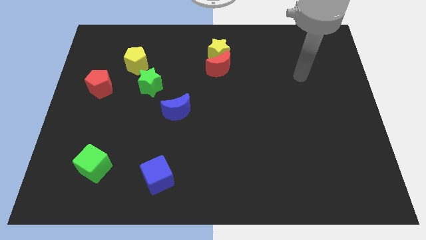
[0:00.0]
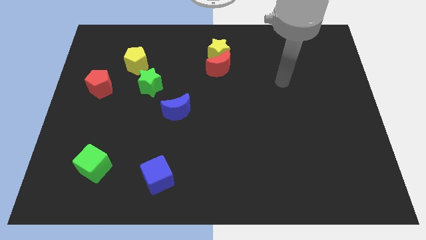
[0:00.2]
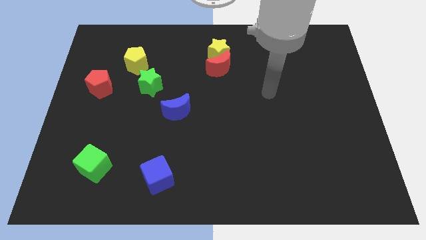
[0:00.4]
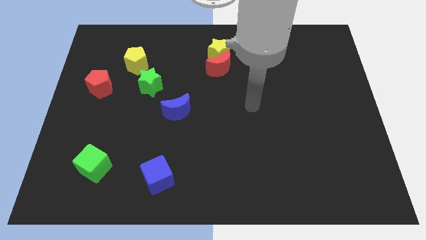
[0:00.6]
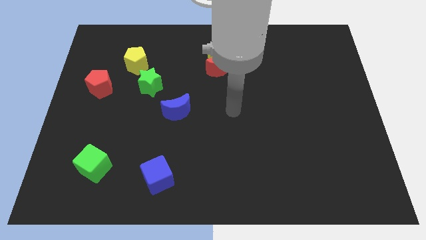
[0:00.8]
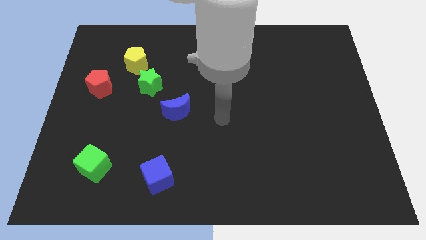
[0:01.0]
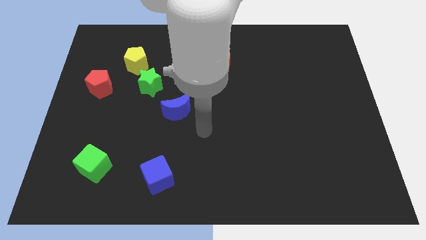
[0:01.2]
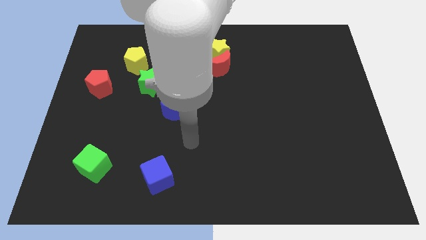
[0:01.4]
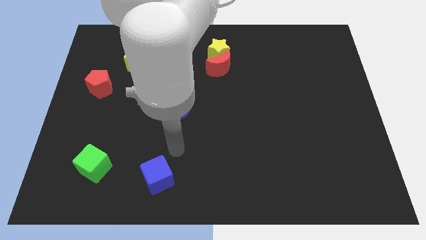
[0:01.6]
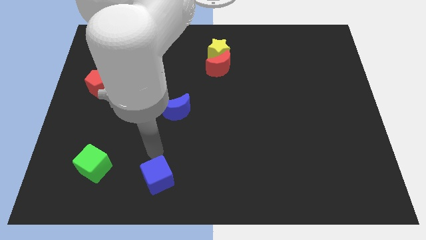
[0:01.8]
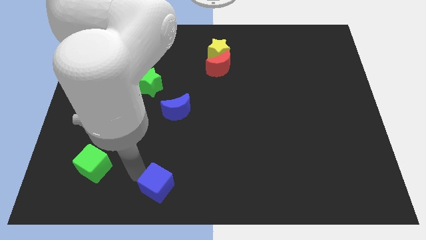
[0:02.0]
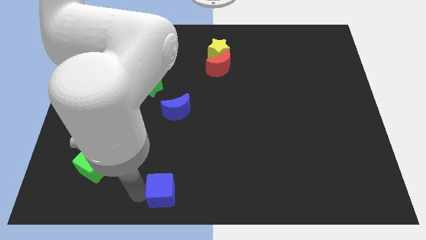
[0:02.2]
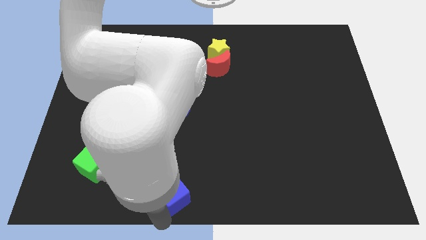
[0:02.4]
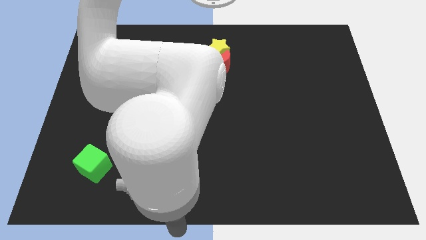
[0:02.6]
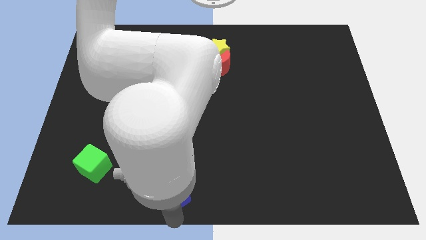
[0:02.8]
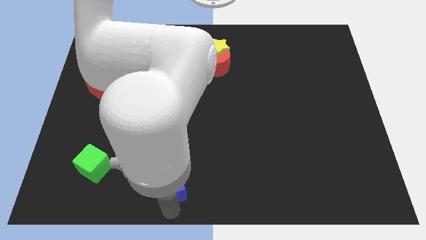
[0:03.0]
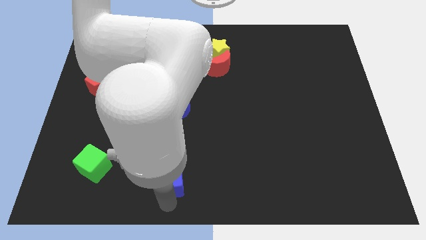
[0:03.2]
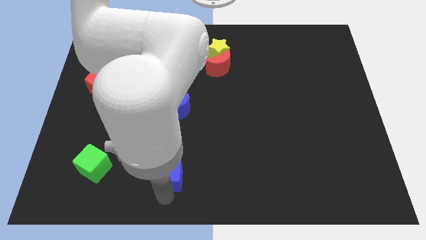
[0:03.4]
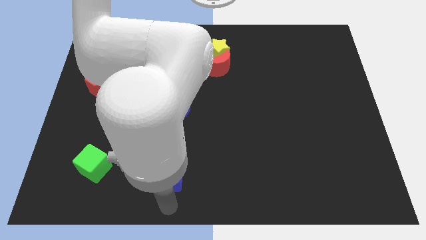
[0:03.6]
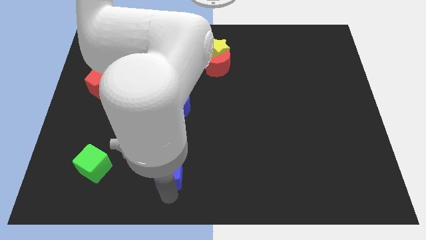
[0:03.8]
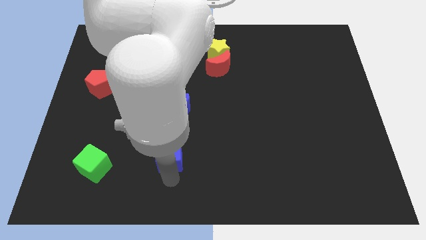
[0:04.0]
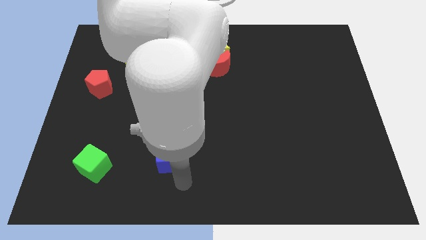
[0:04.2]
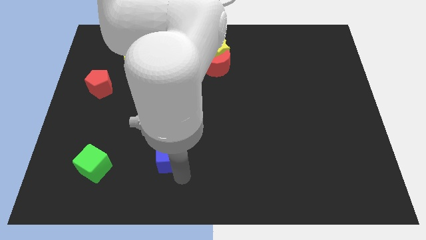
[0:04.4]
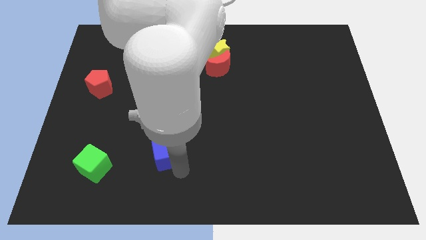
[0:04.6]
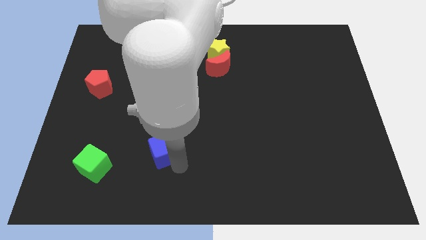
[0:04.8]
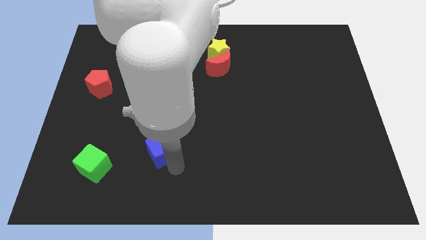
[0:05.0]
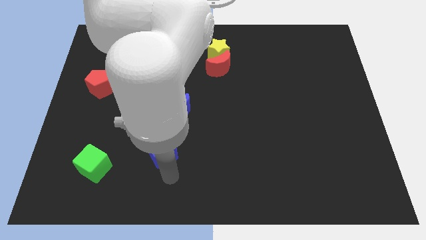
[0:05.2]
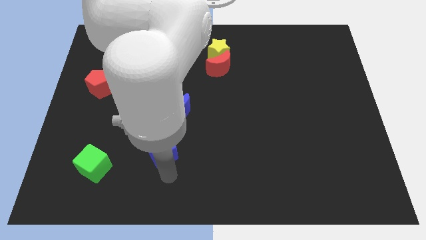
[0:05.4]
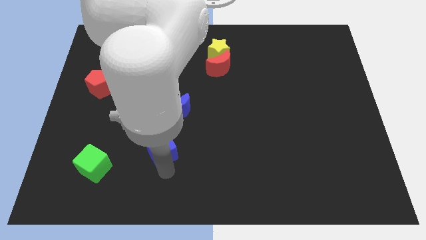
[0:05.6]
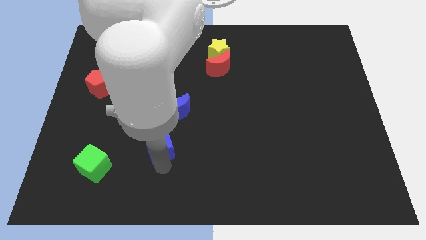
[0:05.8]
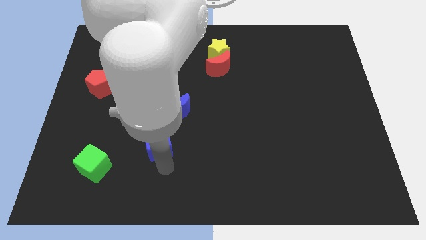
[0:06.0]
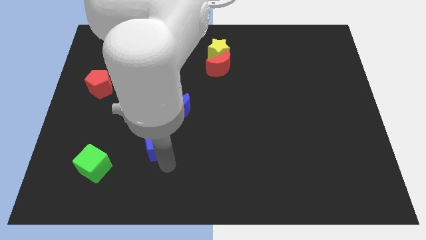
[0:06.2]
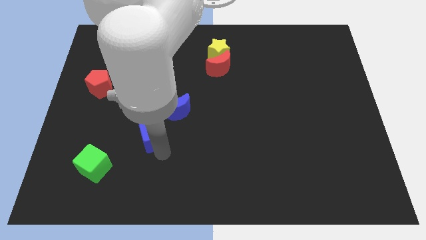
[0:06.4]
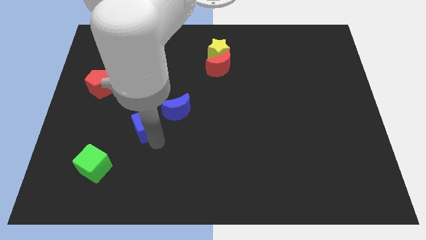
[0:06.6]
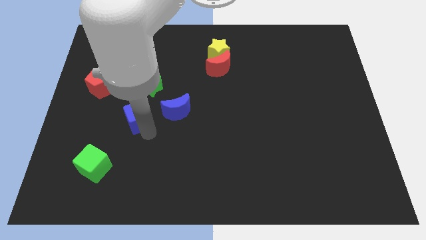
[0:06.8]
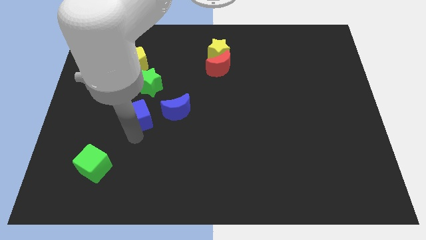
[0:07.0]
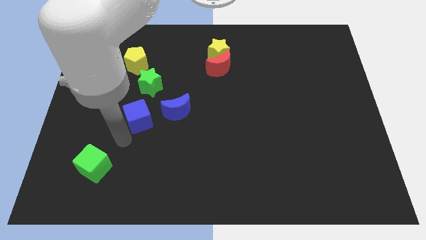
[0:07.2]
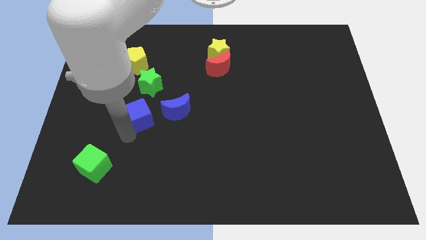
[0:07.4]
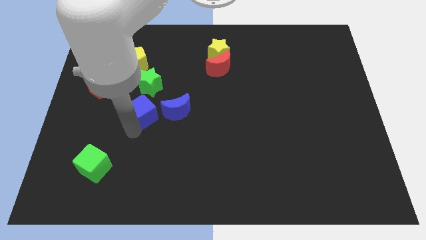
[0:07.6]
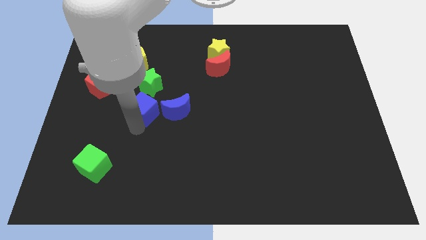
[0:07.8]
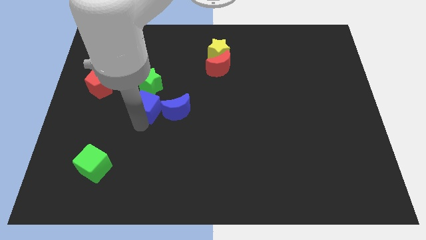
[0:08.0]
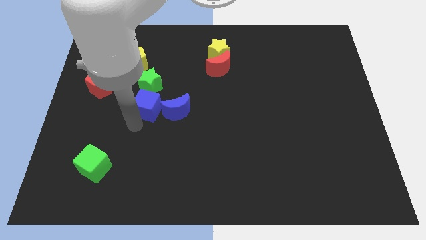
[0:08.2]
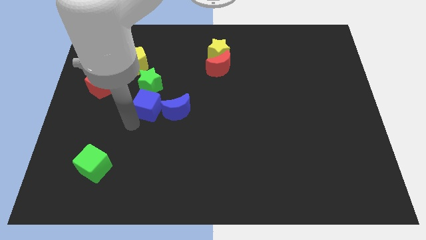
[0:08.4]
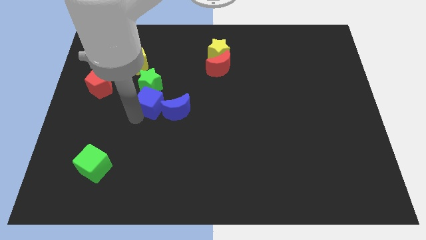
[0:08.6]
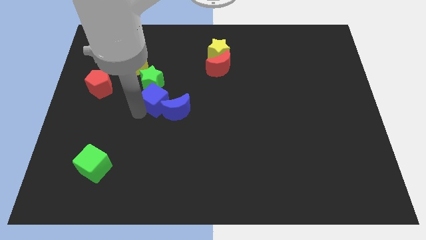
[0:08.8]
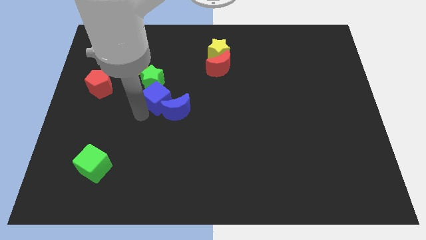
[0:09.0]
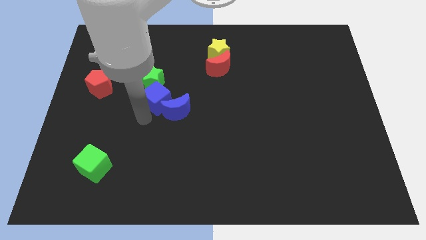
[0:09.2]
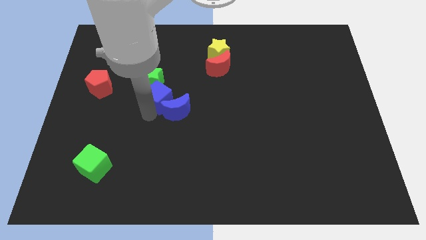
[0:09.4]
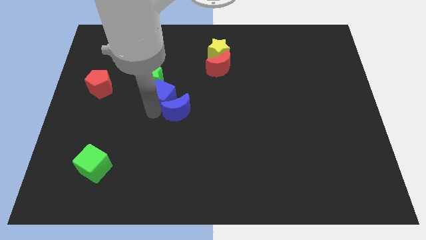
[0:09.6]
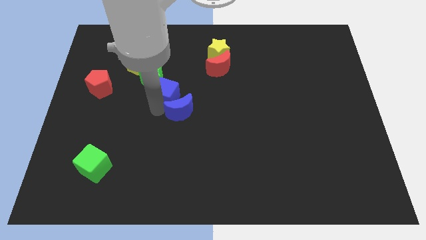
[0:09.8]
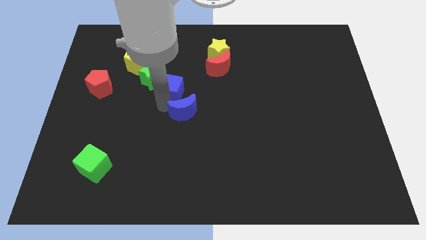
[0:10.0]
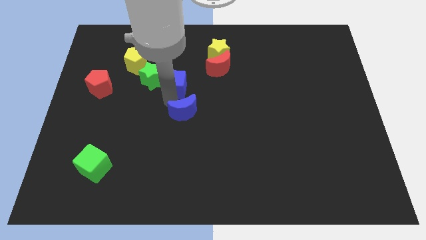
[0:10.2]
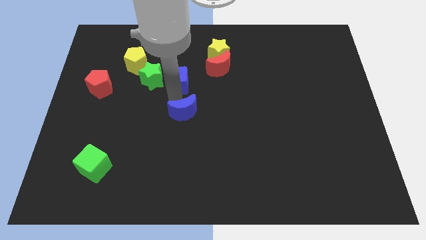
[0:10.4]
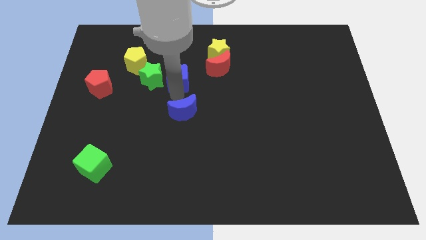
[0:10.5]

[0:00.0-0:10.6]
put the blue cube diagonally up and to the right of the green star

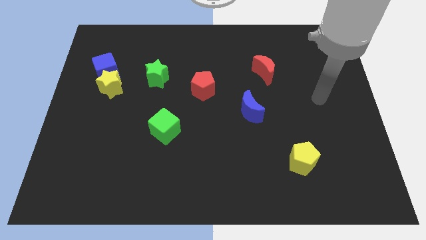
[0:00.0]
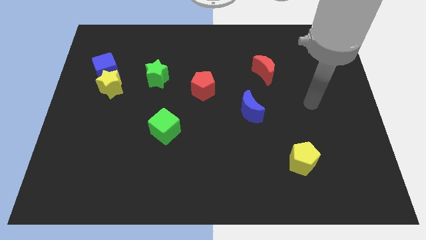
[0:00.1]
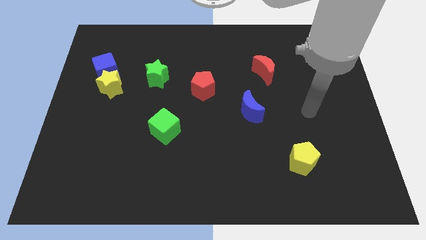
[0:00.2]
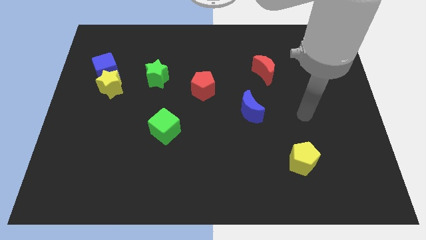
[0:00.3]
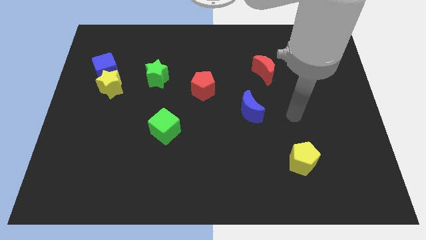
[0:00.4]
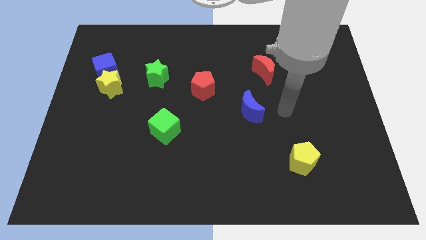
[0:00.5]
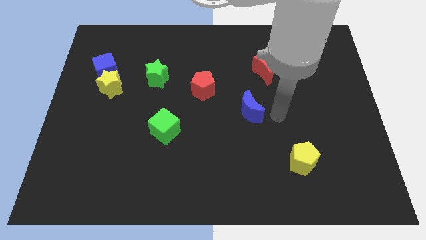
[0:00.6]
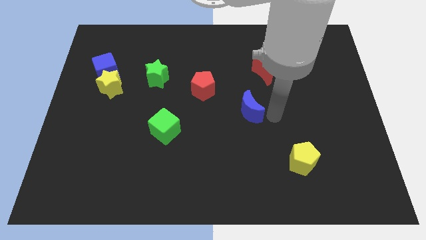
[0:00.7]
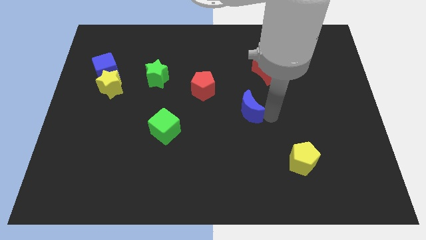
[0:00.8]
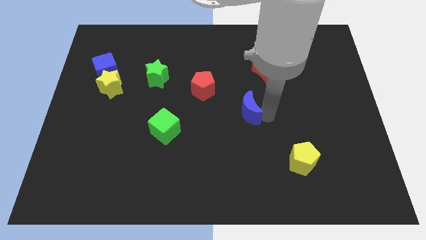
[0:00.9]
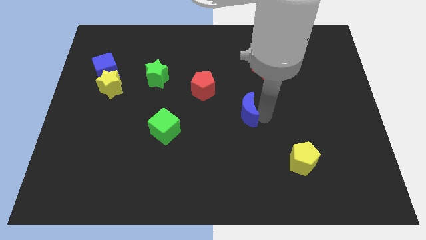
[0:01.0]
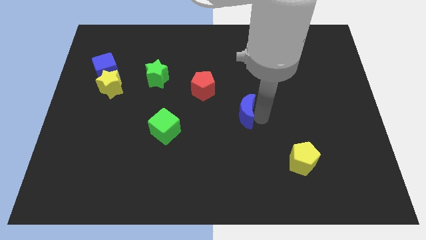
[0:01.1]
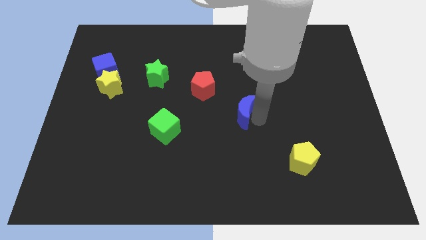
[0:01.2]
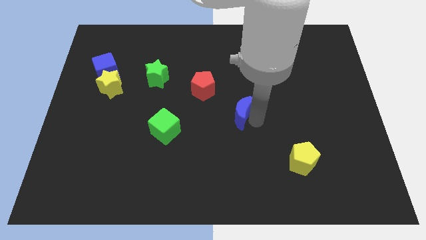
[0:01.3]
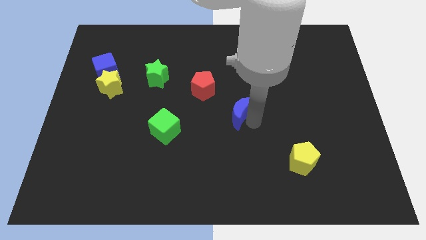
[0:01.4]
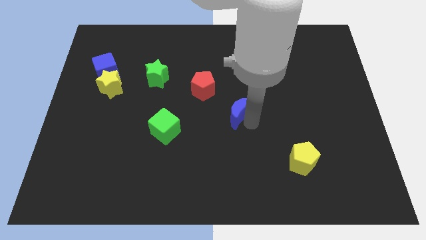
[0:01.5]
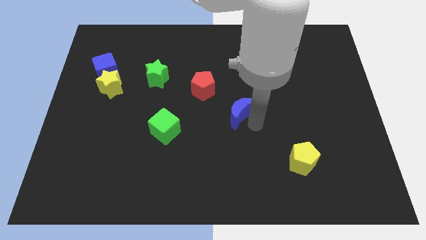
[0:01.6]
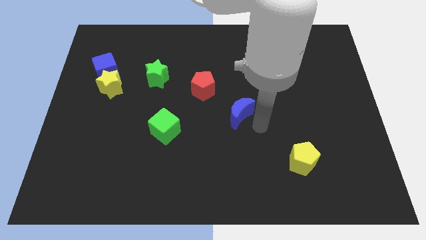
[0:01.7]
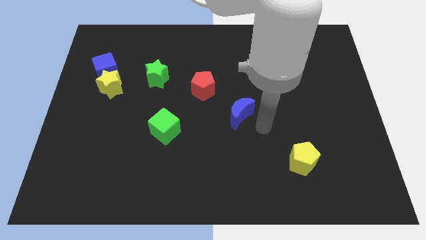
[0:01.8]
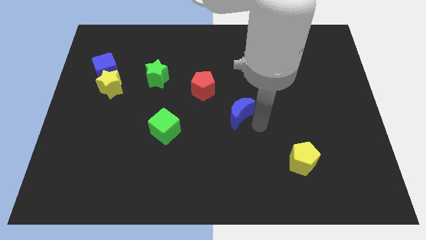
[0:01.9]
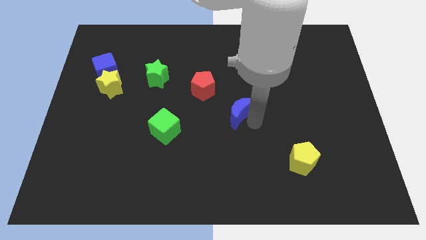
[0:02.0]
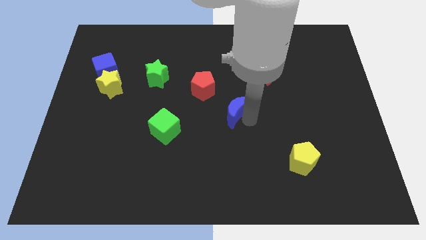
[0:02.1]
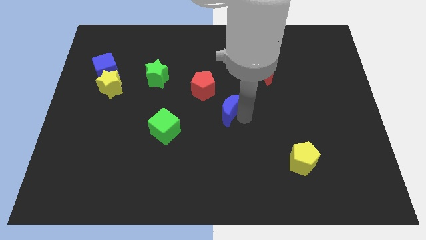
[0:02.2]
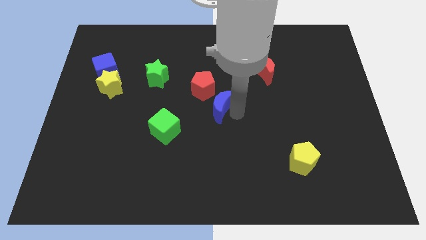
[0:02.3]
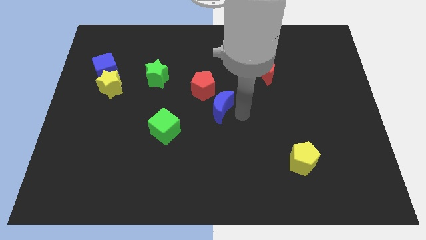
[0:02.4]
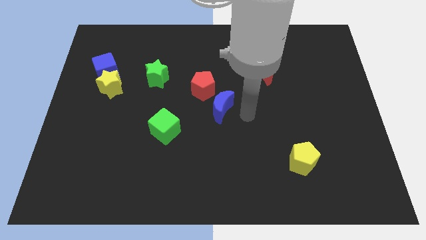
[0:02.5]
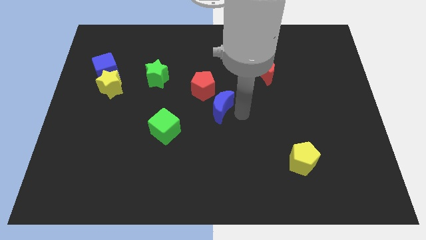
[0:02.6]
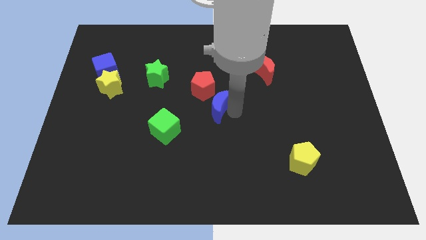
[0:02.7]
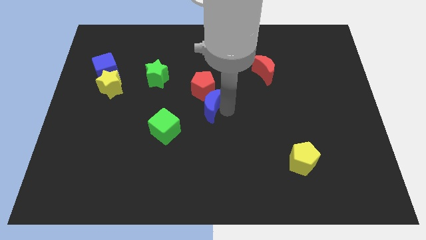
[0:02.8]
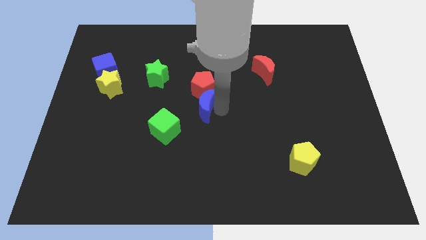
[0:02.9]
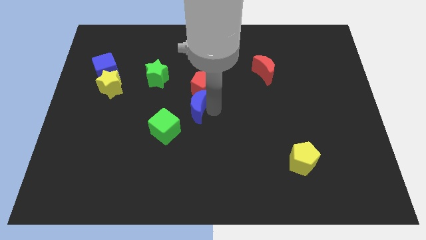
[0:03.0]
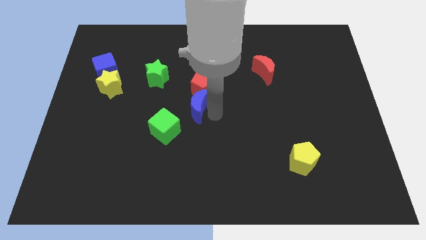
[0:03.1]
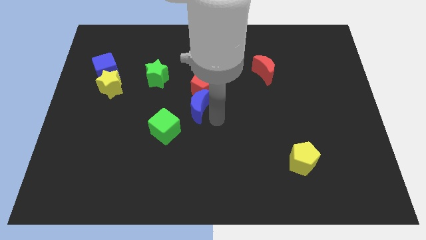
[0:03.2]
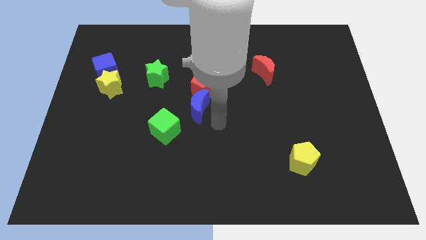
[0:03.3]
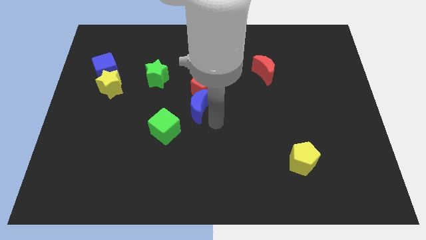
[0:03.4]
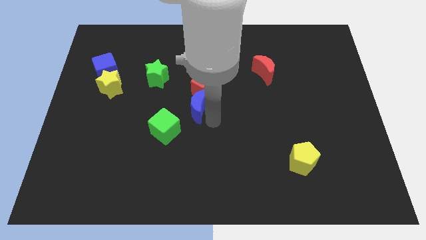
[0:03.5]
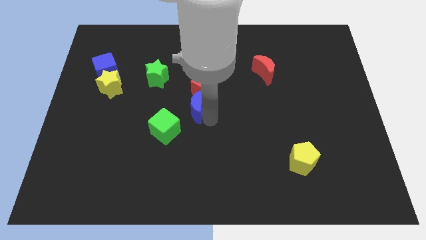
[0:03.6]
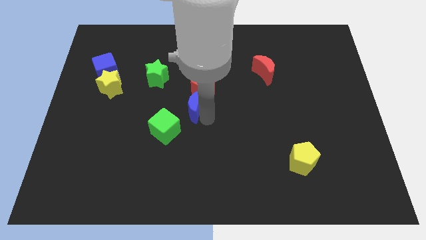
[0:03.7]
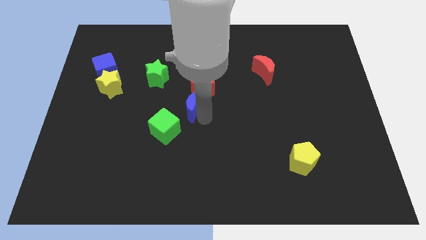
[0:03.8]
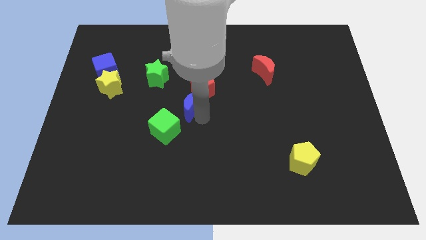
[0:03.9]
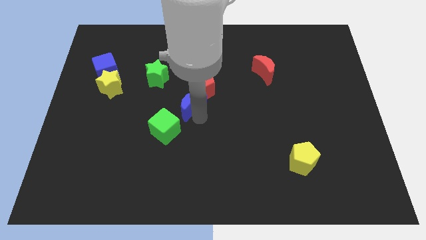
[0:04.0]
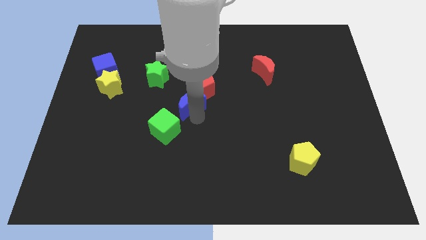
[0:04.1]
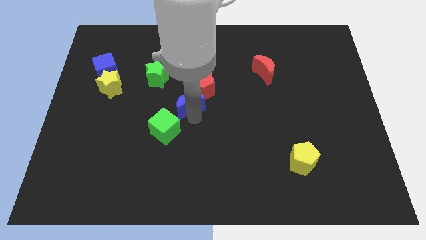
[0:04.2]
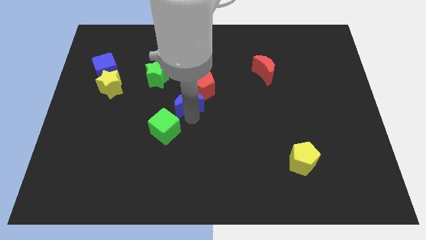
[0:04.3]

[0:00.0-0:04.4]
slide the blue moon to the top of the green cube
